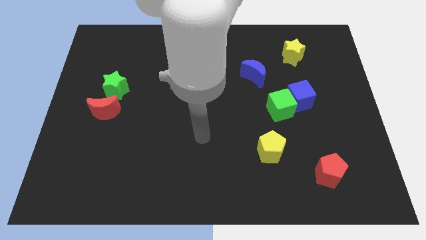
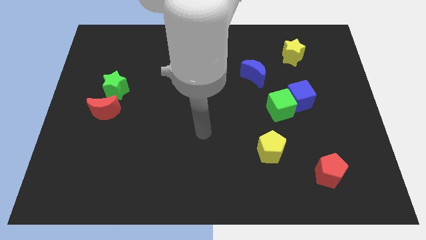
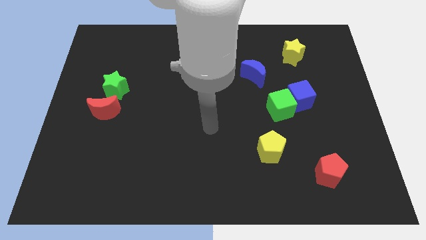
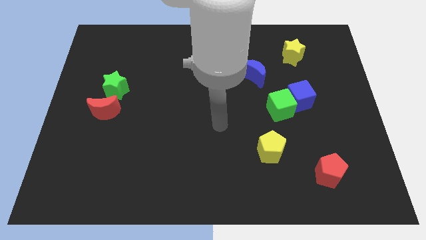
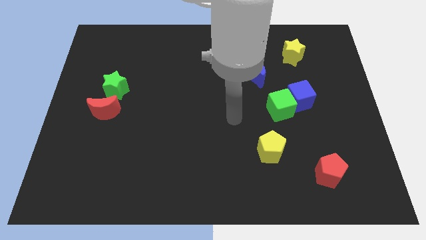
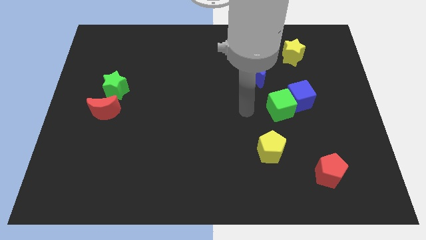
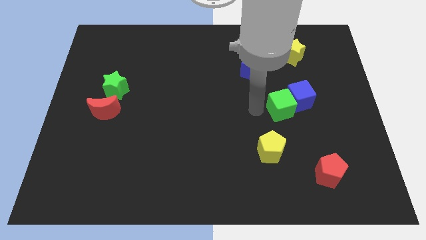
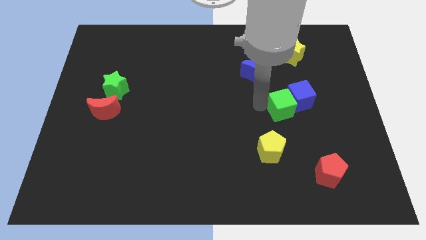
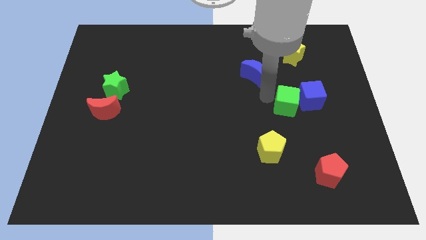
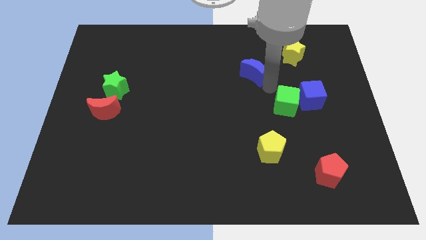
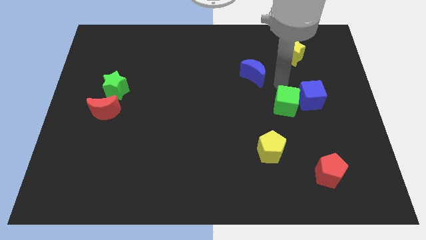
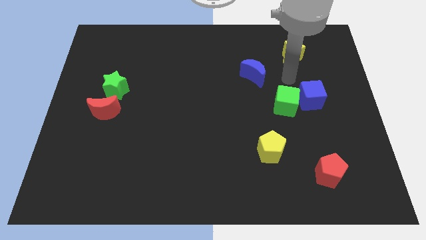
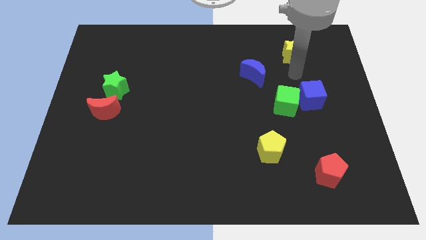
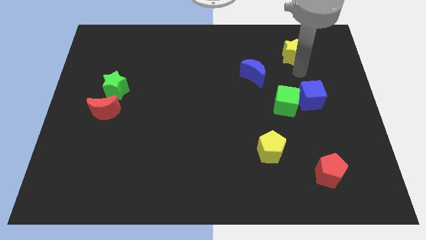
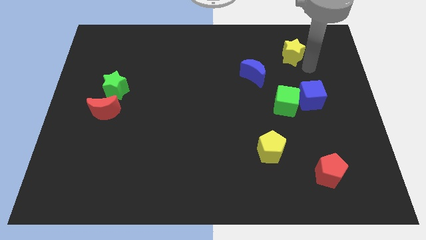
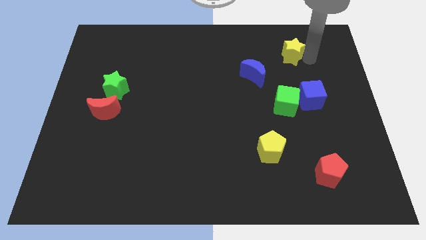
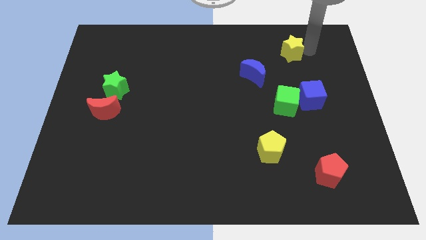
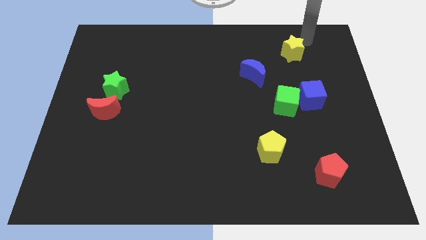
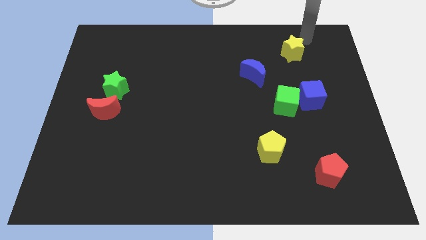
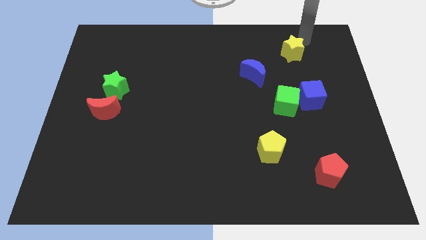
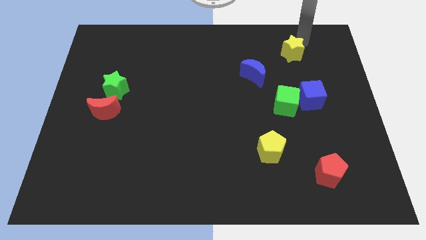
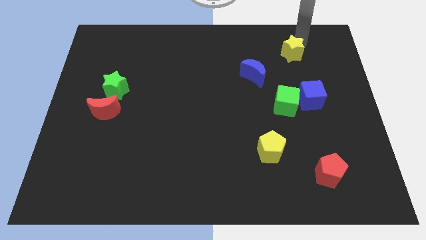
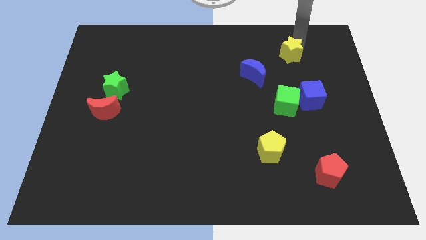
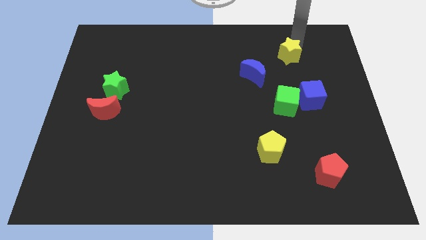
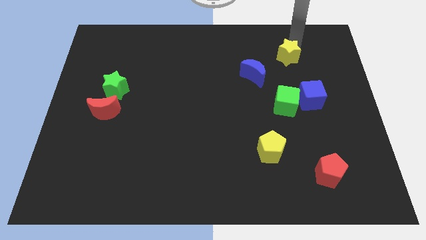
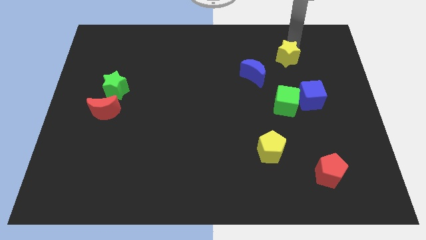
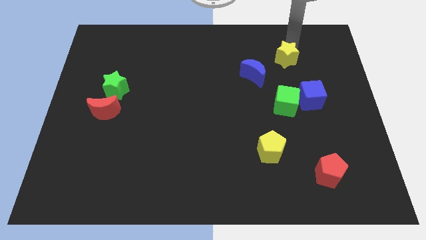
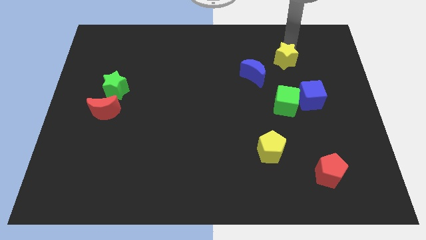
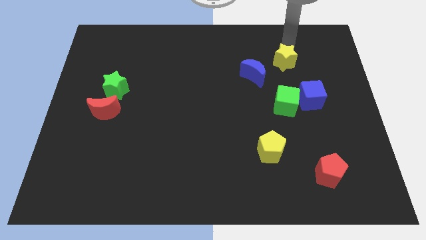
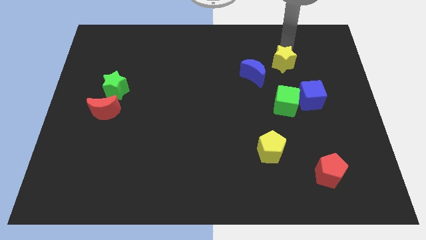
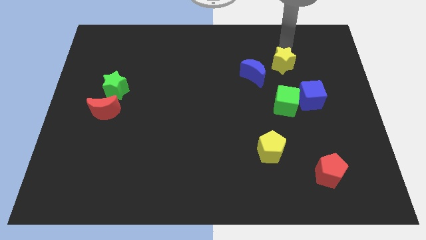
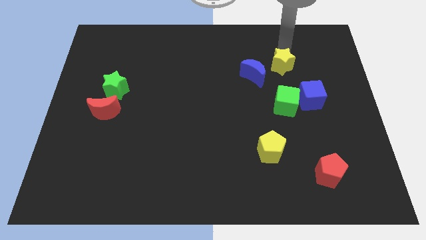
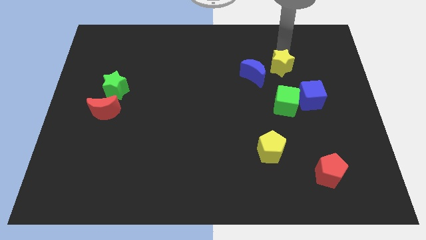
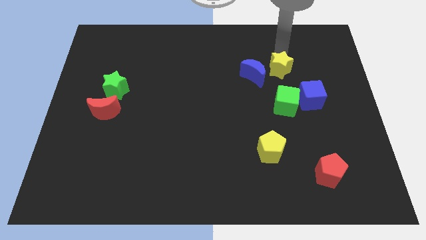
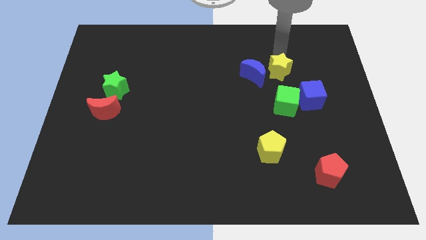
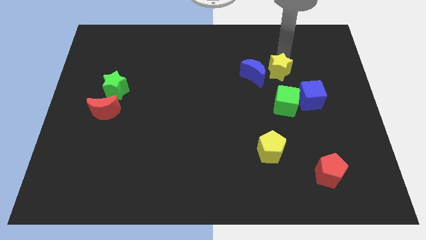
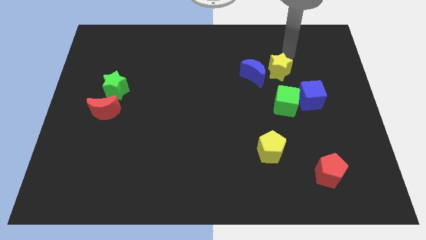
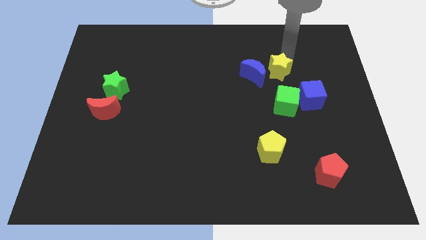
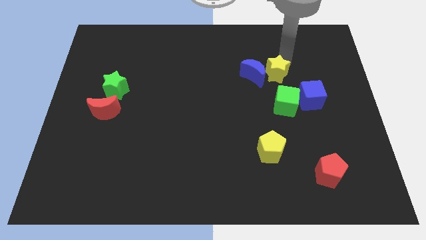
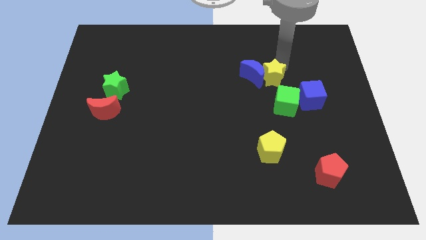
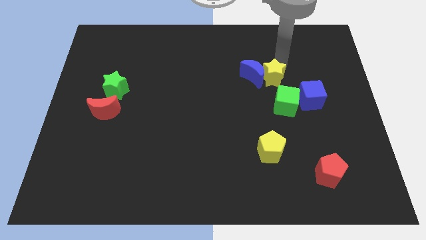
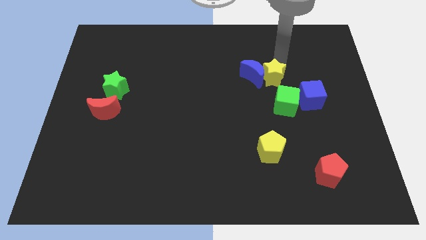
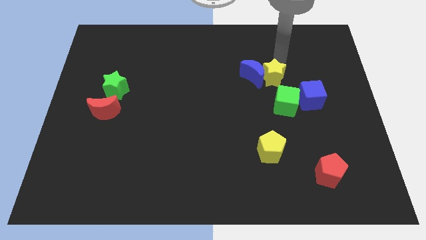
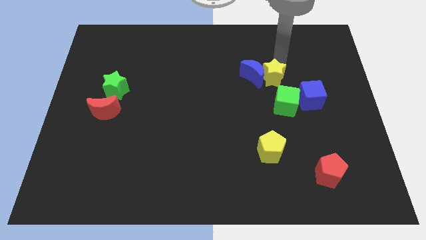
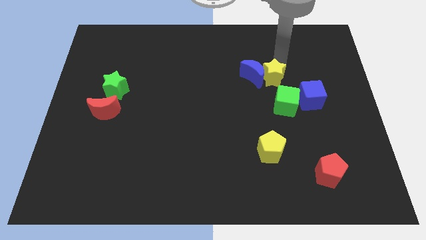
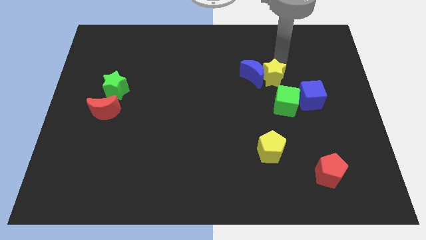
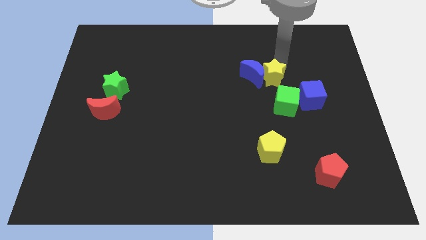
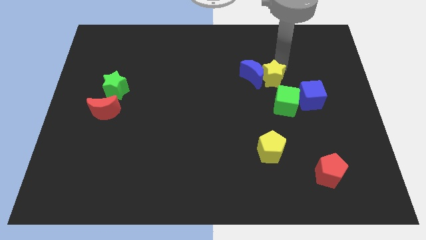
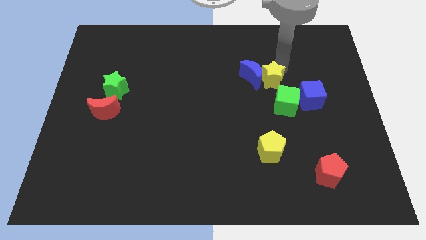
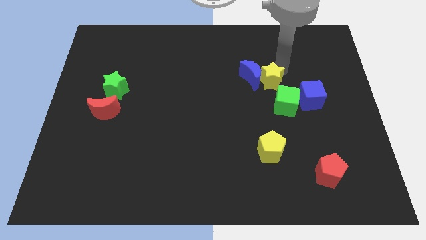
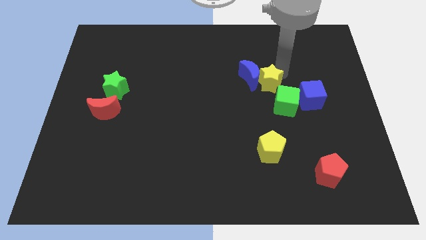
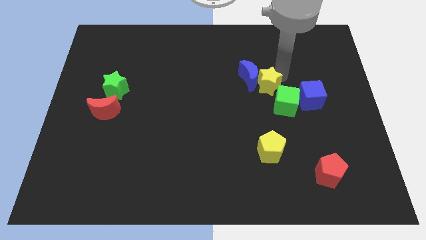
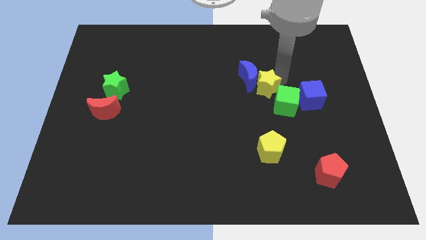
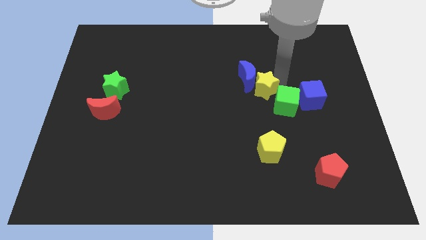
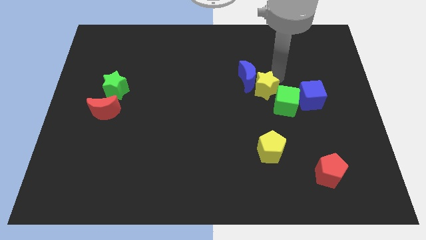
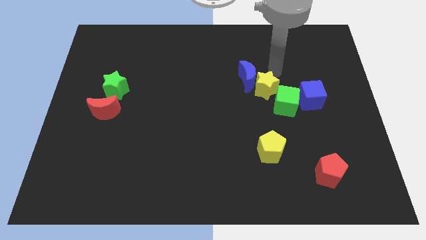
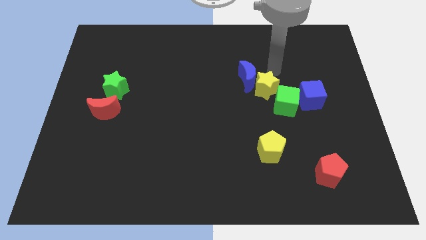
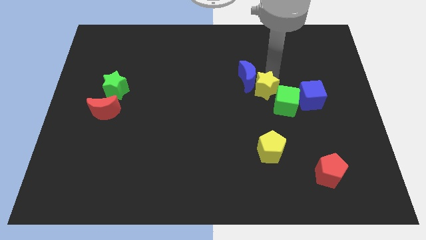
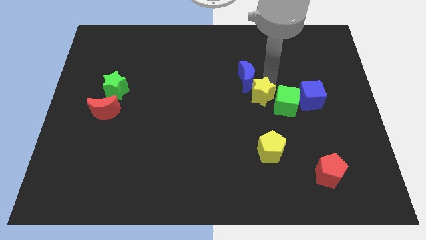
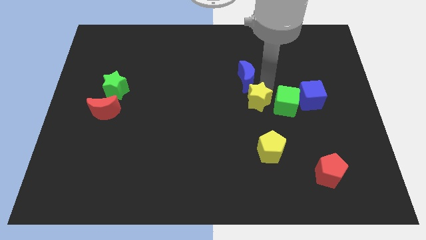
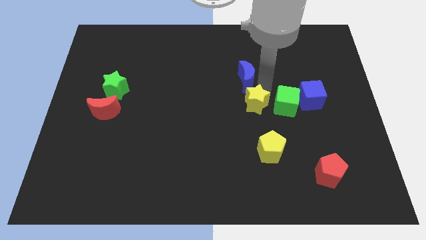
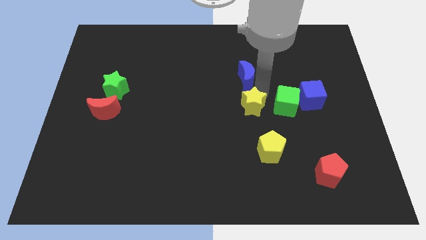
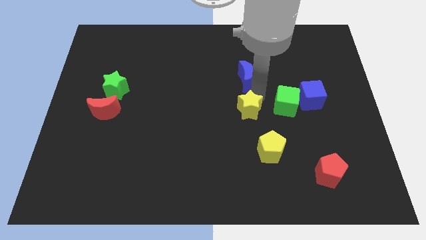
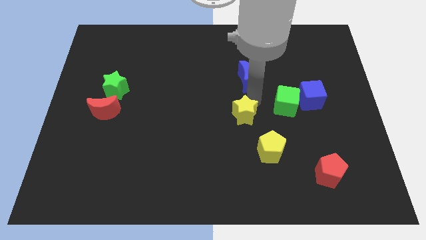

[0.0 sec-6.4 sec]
put the yellow star diagonally up and to the left of the yellow pentagon
